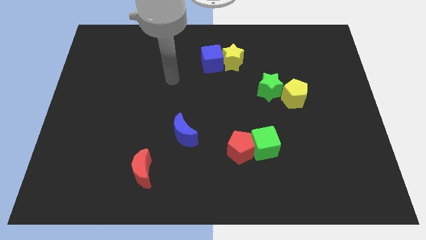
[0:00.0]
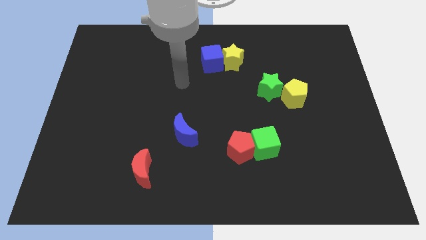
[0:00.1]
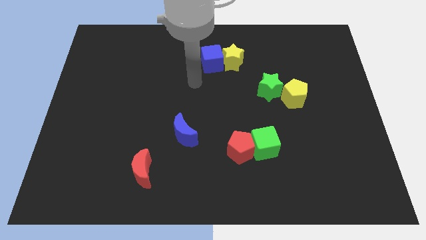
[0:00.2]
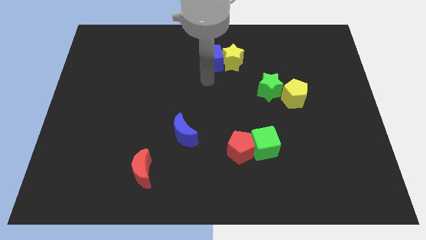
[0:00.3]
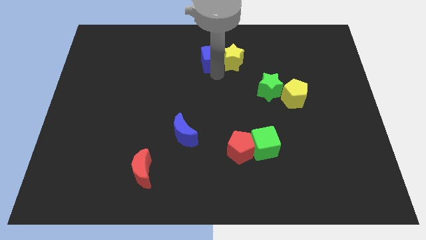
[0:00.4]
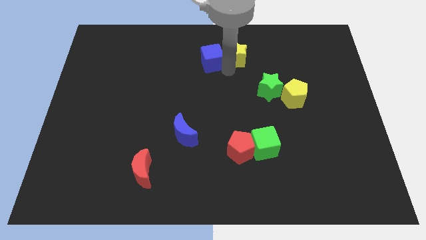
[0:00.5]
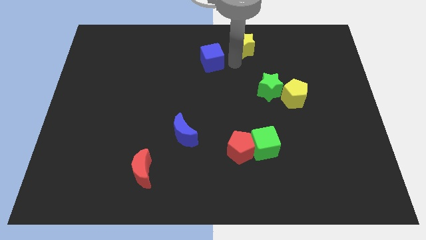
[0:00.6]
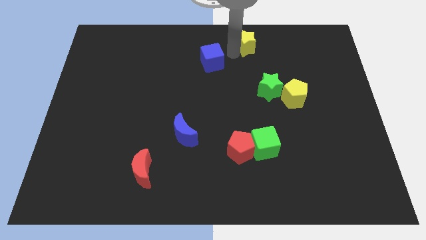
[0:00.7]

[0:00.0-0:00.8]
pull the blue cube apart from the yellow star

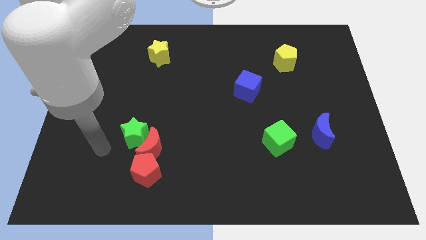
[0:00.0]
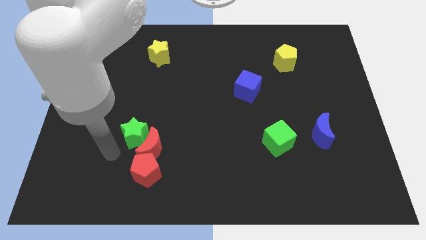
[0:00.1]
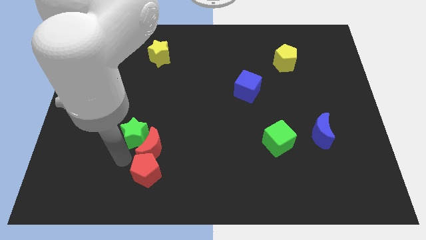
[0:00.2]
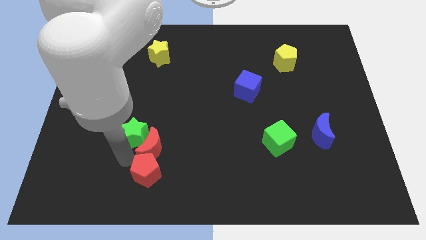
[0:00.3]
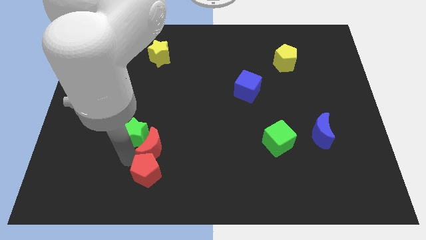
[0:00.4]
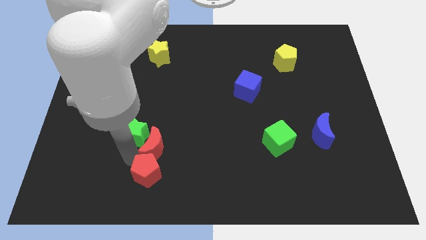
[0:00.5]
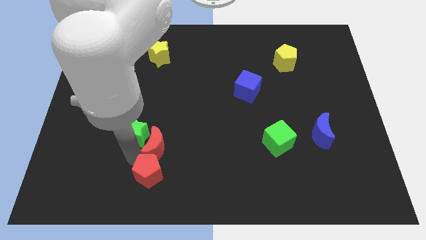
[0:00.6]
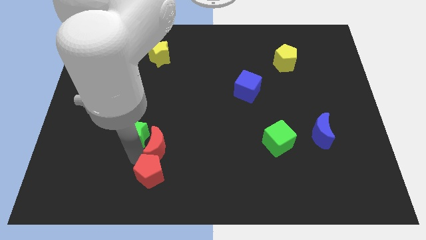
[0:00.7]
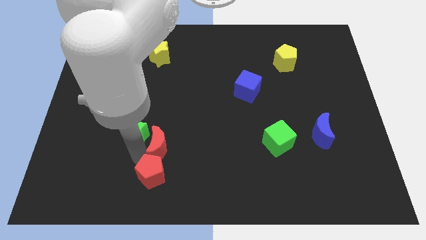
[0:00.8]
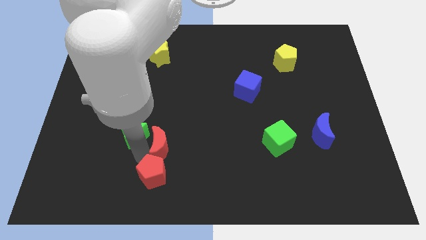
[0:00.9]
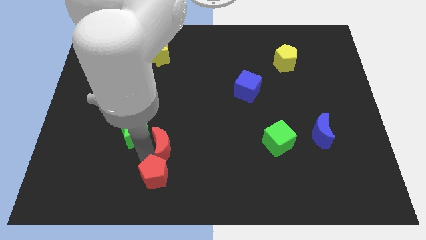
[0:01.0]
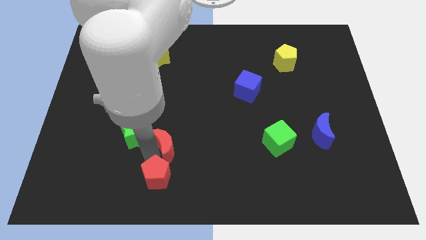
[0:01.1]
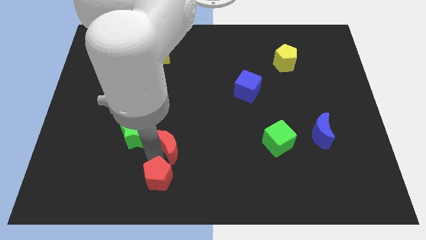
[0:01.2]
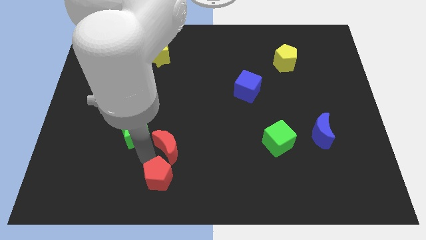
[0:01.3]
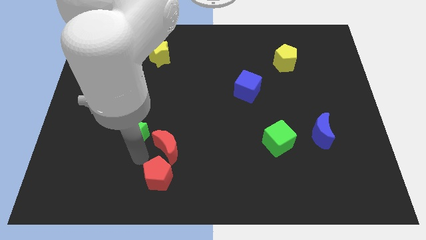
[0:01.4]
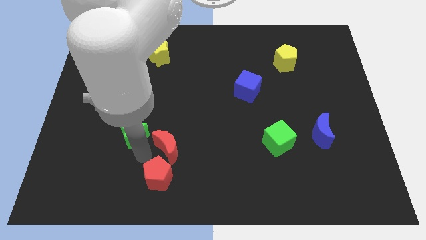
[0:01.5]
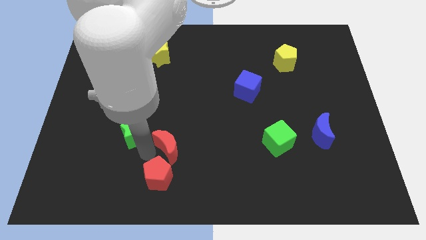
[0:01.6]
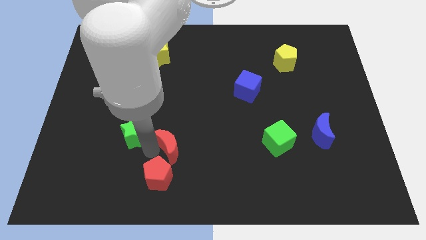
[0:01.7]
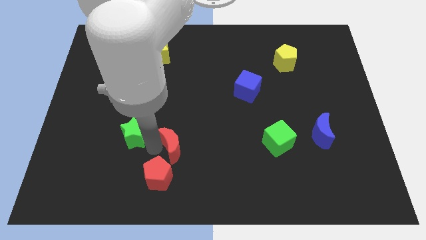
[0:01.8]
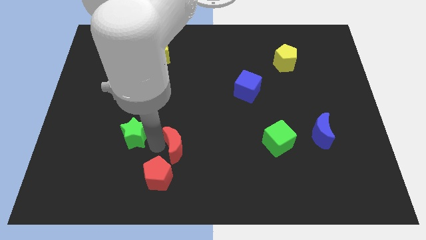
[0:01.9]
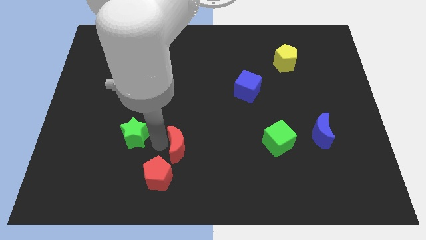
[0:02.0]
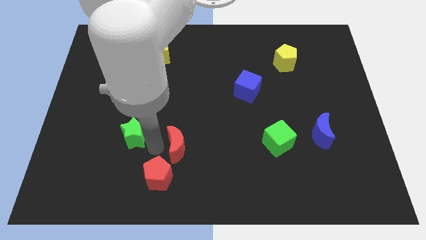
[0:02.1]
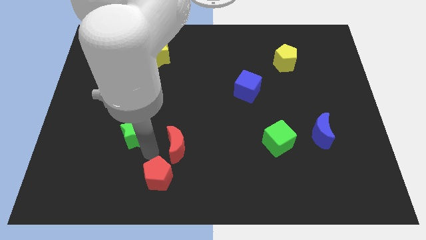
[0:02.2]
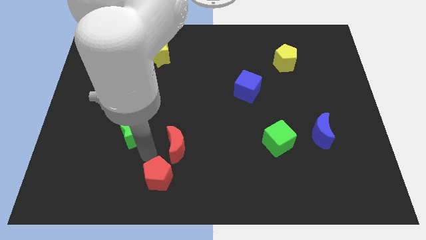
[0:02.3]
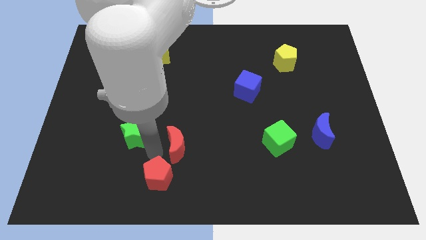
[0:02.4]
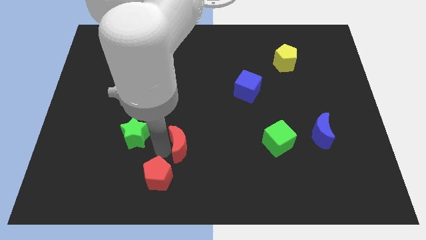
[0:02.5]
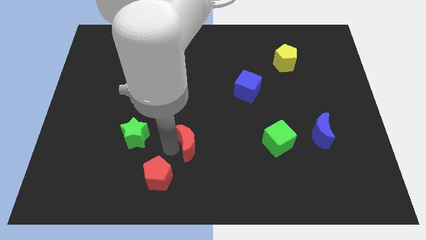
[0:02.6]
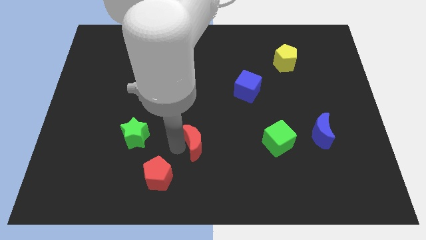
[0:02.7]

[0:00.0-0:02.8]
separate the red moon from the green star and red pentagon

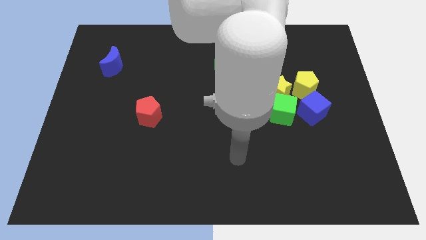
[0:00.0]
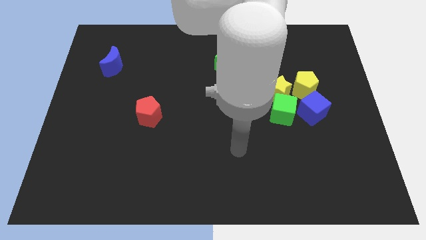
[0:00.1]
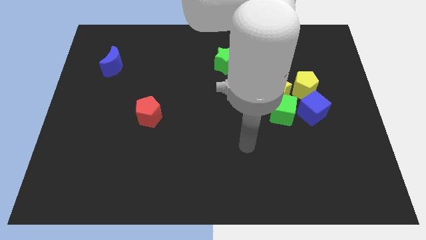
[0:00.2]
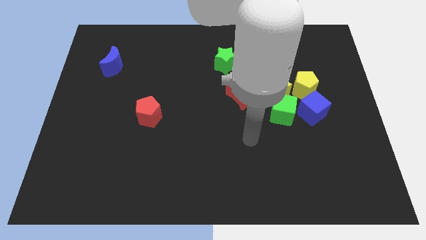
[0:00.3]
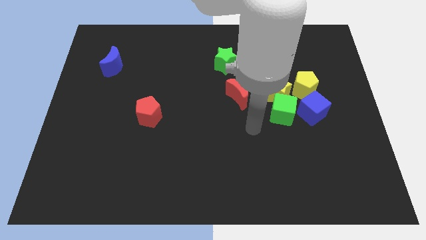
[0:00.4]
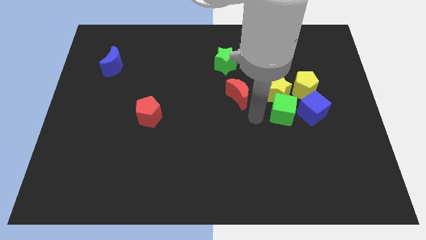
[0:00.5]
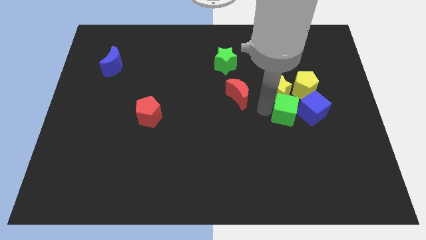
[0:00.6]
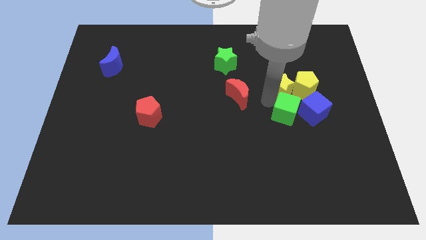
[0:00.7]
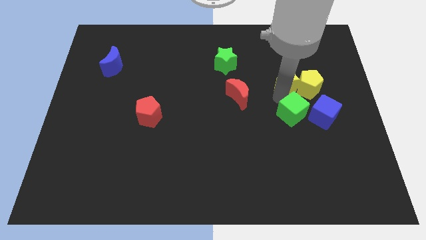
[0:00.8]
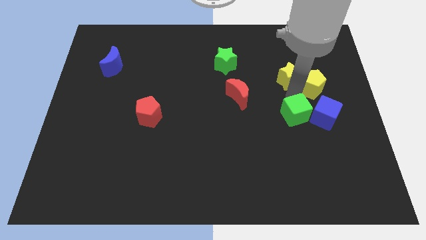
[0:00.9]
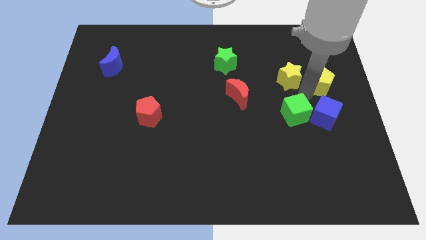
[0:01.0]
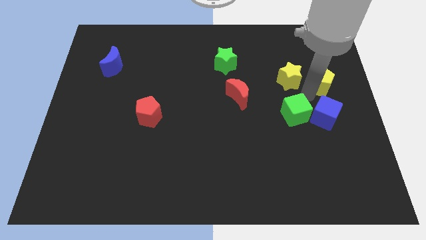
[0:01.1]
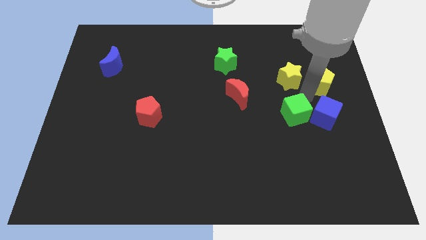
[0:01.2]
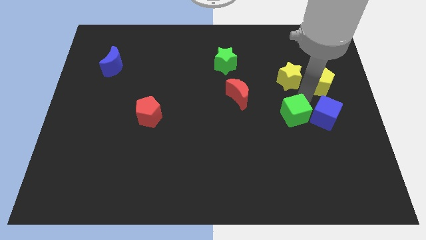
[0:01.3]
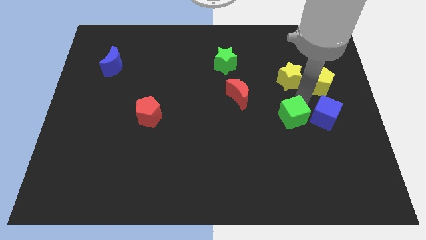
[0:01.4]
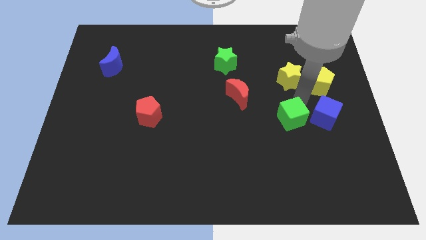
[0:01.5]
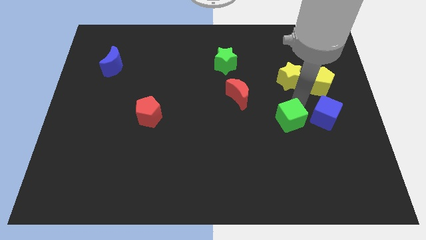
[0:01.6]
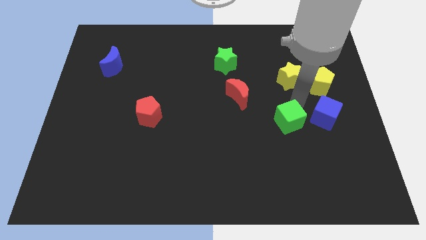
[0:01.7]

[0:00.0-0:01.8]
move the green cube away from the group

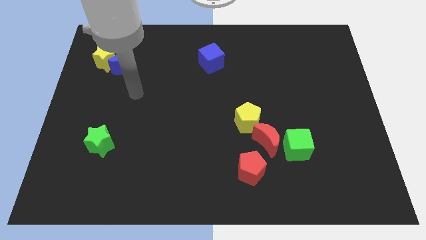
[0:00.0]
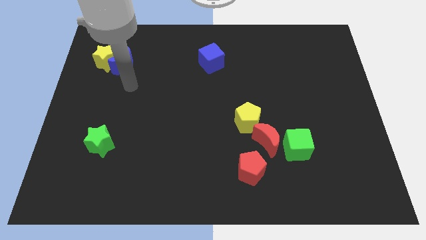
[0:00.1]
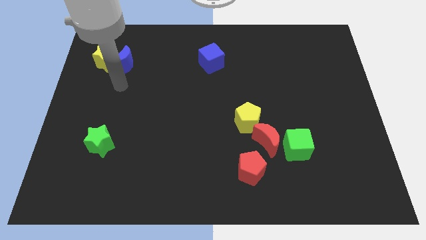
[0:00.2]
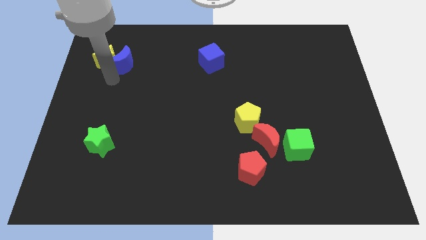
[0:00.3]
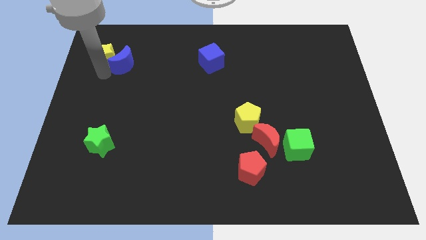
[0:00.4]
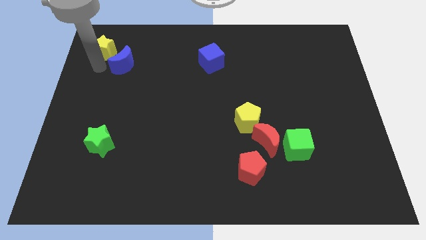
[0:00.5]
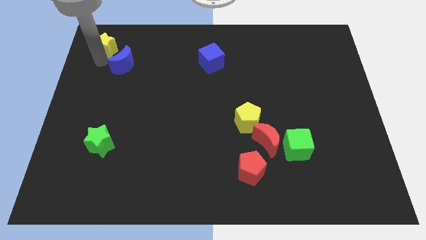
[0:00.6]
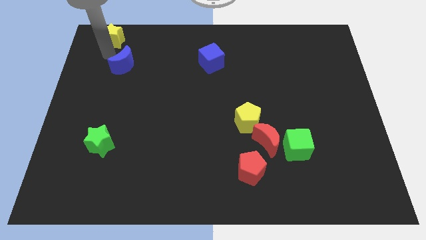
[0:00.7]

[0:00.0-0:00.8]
pull the blue moon apart from the yellow star

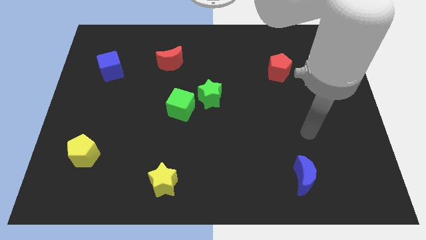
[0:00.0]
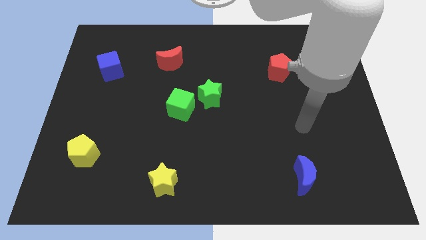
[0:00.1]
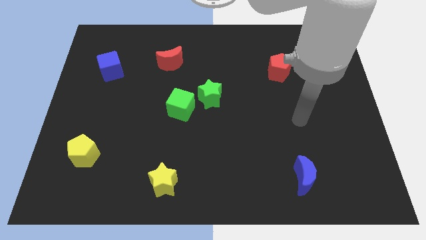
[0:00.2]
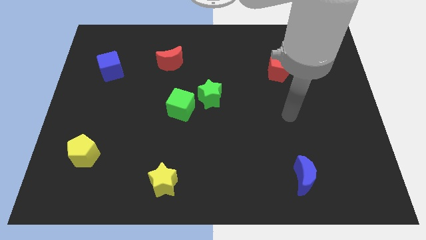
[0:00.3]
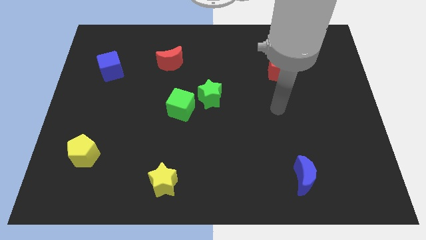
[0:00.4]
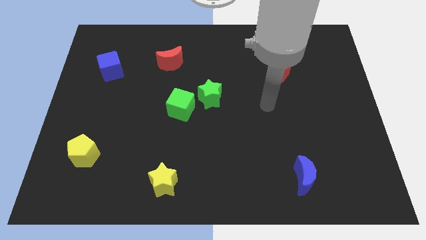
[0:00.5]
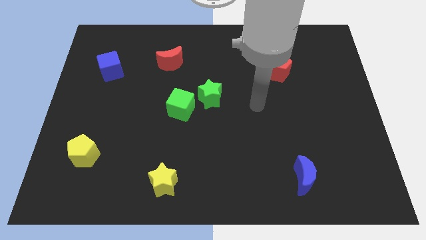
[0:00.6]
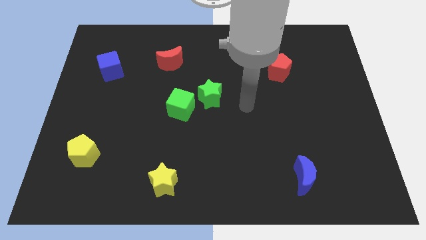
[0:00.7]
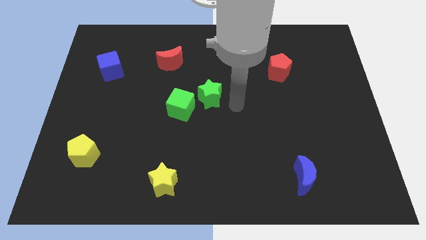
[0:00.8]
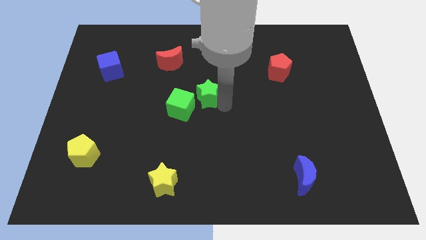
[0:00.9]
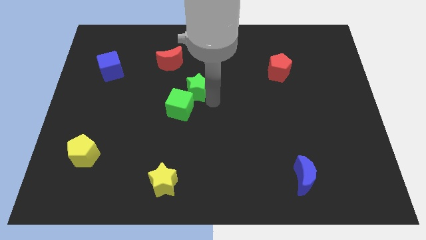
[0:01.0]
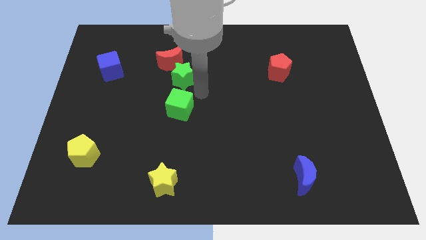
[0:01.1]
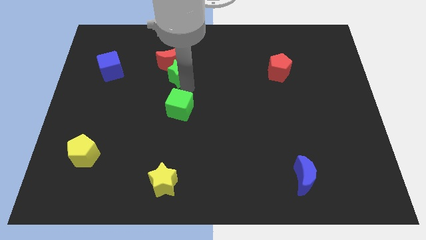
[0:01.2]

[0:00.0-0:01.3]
separate the green cube from the green star

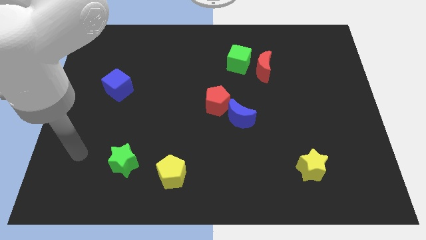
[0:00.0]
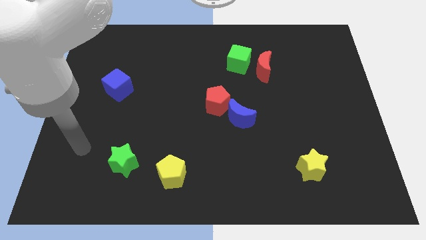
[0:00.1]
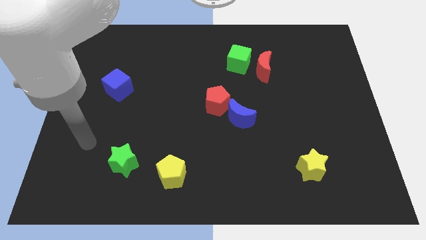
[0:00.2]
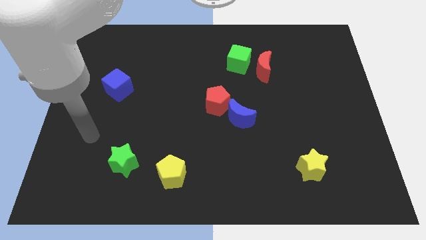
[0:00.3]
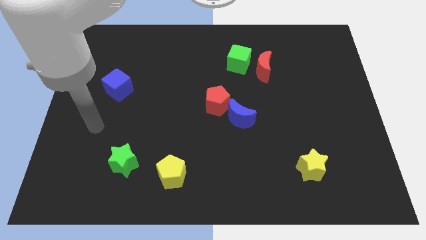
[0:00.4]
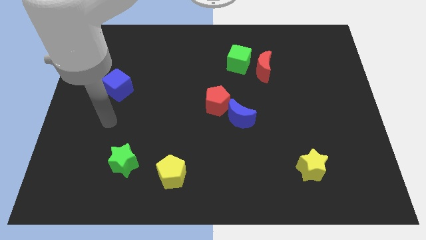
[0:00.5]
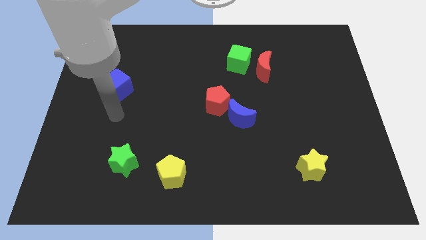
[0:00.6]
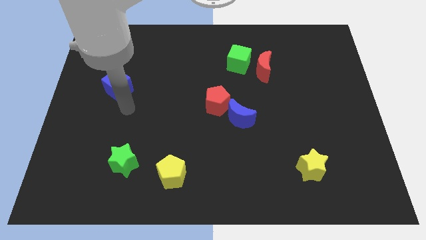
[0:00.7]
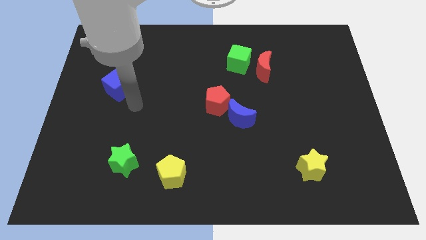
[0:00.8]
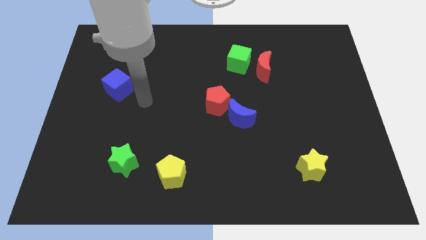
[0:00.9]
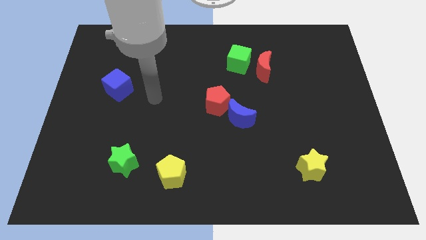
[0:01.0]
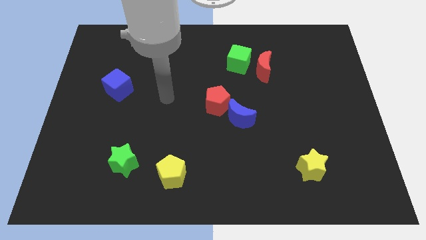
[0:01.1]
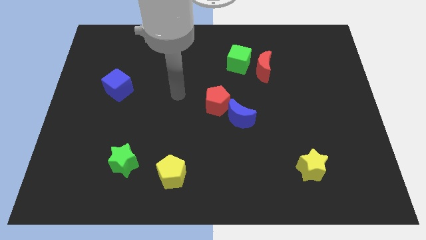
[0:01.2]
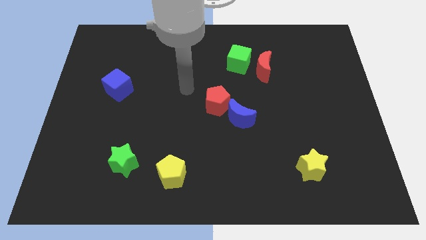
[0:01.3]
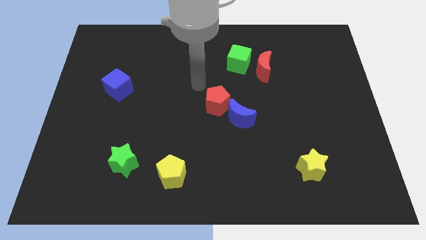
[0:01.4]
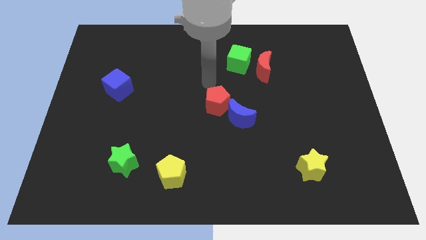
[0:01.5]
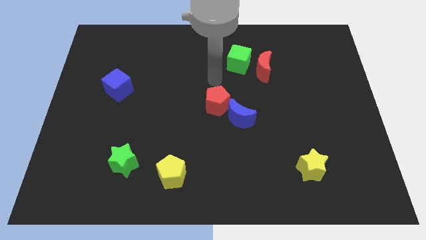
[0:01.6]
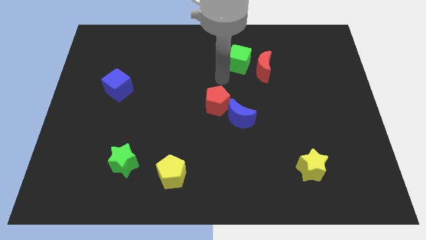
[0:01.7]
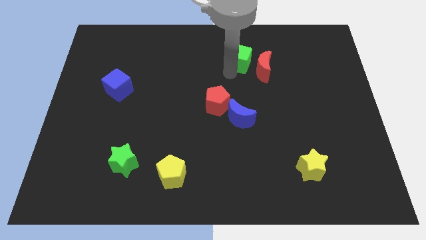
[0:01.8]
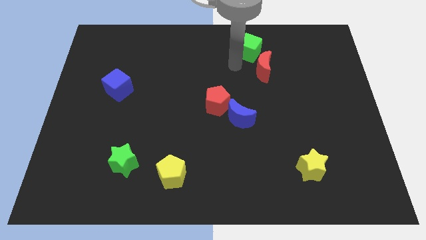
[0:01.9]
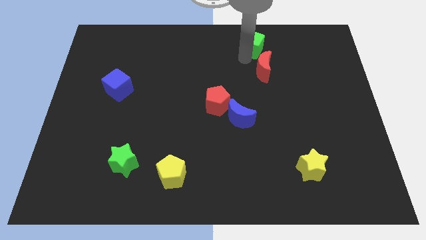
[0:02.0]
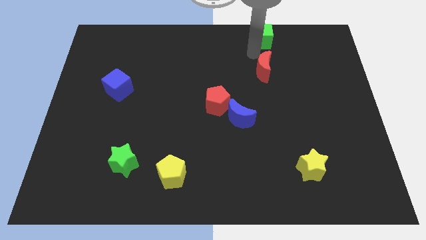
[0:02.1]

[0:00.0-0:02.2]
move the red moon away from the green cube
